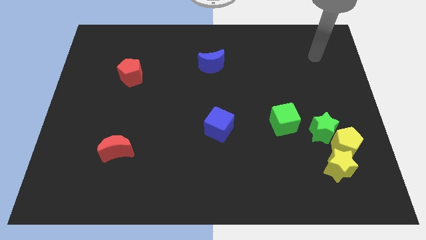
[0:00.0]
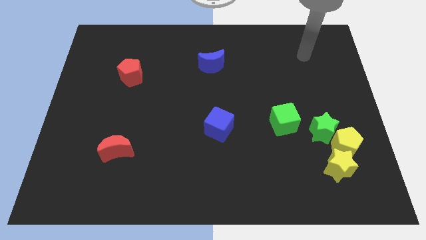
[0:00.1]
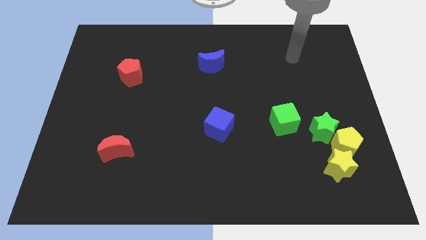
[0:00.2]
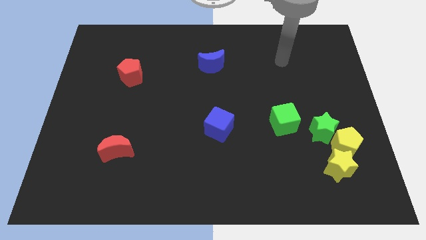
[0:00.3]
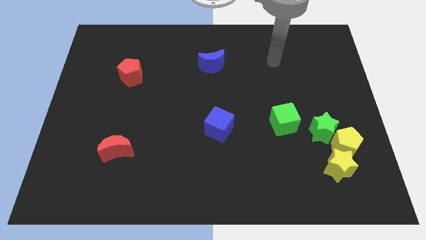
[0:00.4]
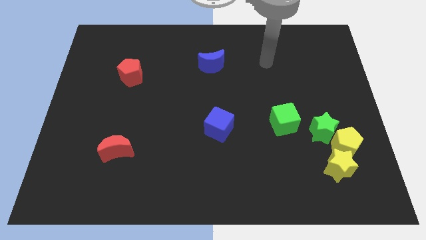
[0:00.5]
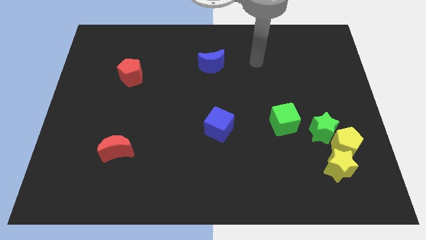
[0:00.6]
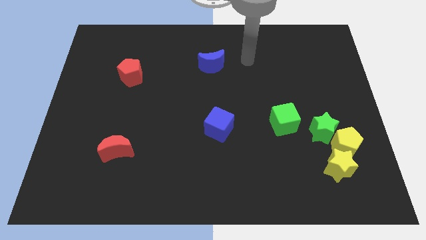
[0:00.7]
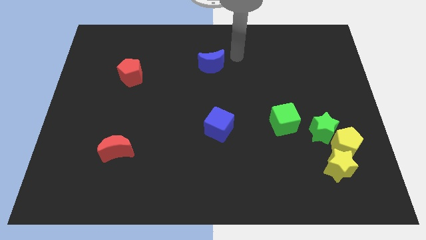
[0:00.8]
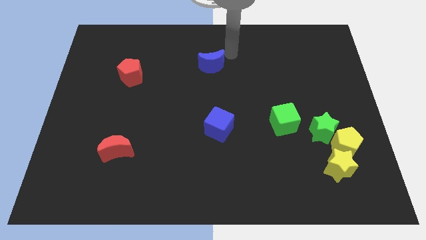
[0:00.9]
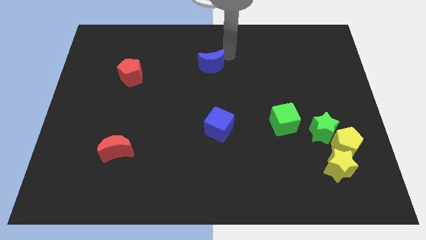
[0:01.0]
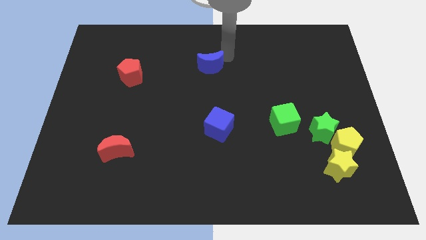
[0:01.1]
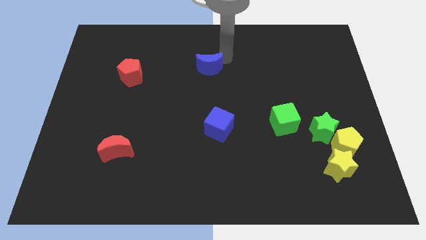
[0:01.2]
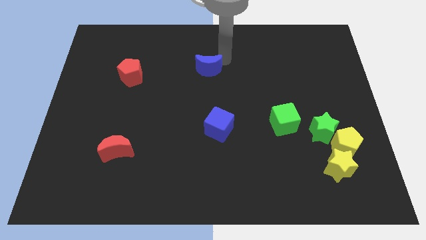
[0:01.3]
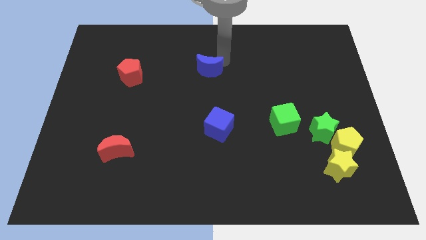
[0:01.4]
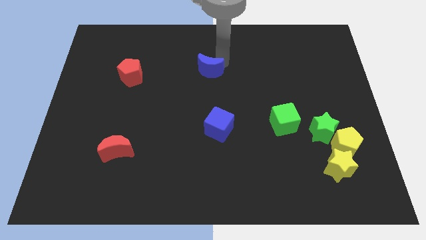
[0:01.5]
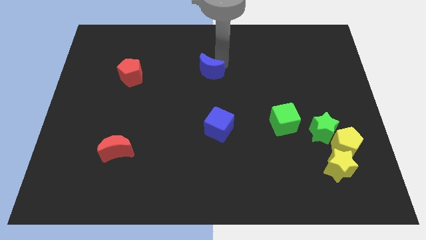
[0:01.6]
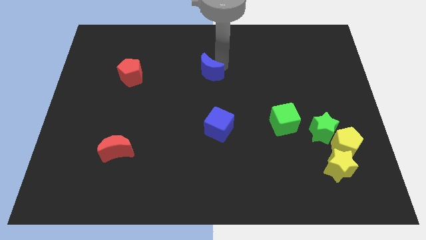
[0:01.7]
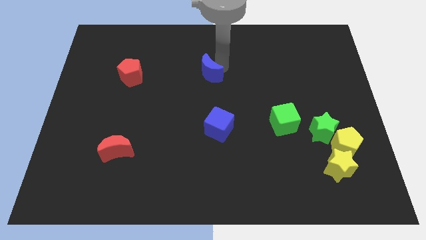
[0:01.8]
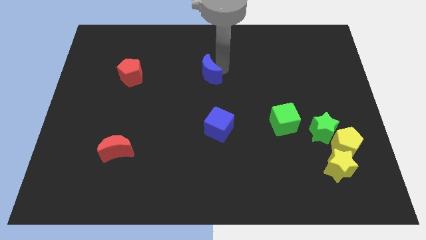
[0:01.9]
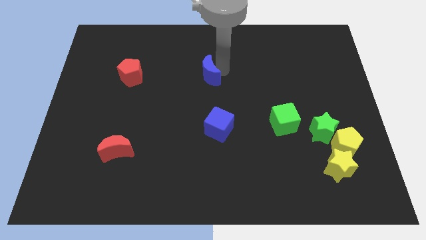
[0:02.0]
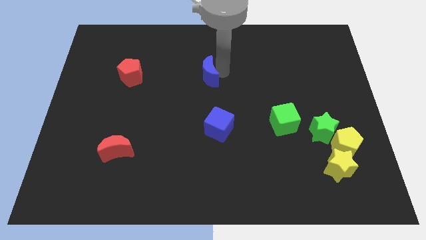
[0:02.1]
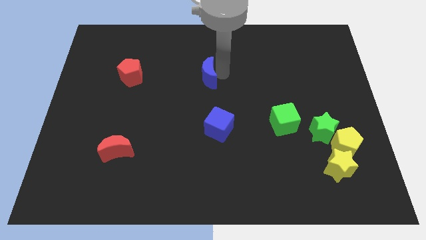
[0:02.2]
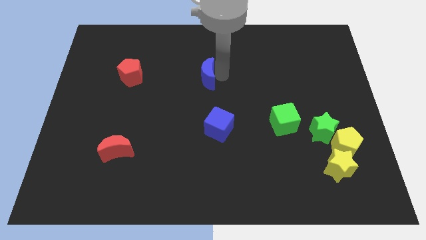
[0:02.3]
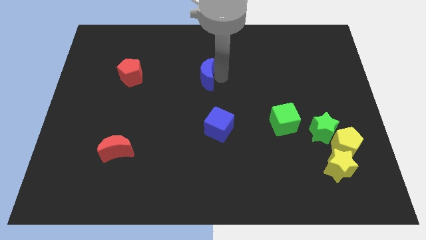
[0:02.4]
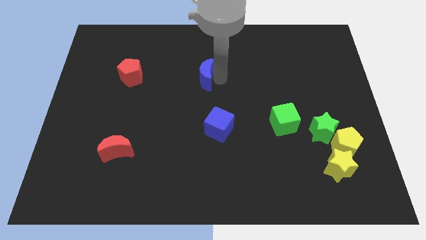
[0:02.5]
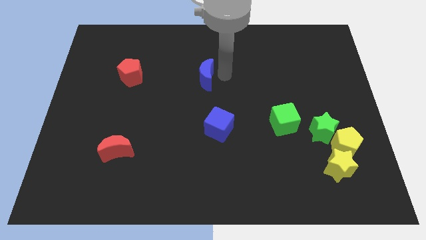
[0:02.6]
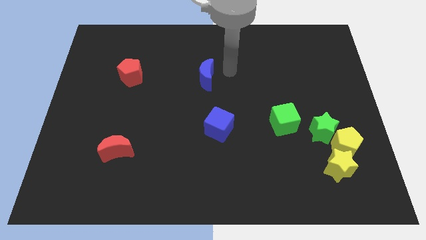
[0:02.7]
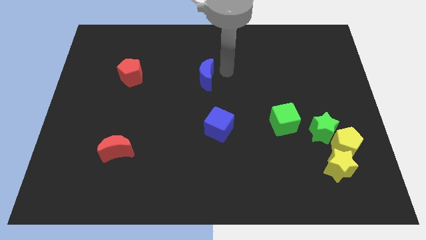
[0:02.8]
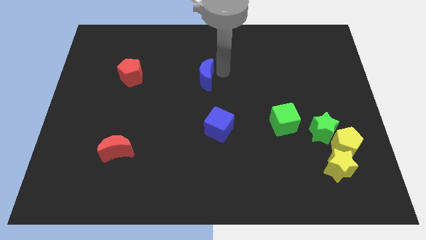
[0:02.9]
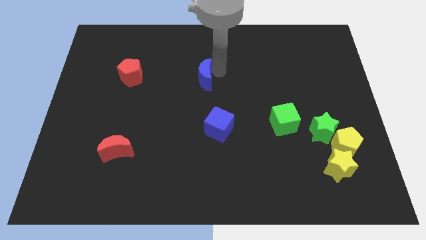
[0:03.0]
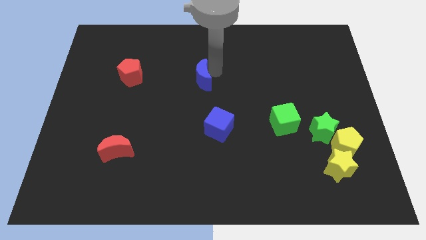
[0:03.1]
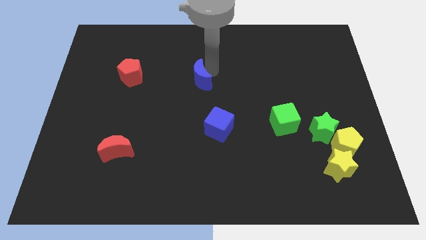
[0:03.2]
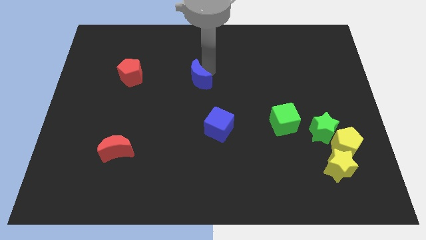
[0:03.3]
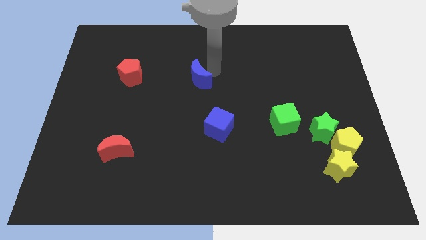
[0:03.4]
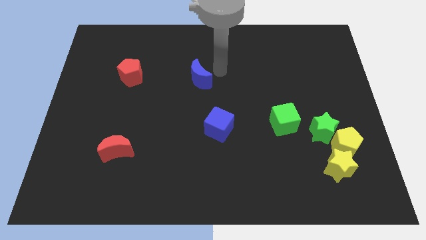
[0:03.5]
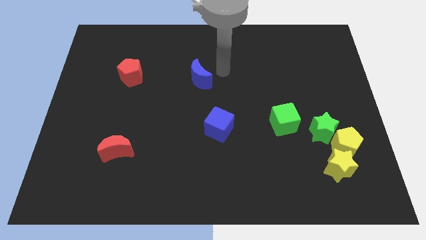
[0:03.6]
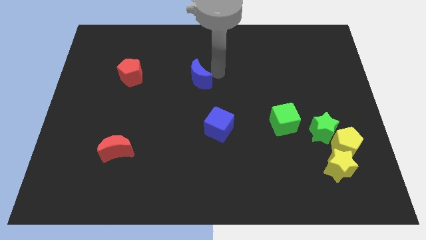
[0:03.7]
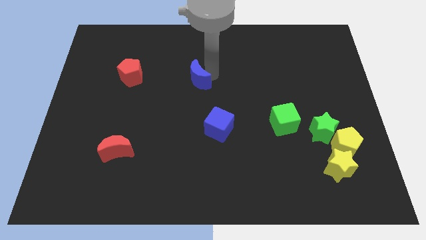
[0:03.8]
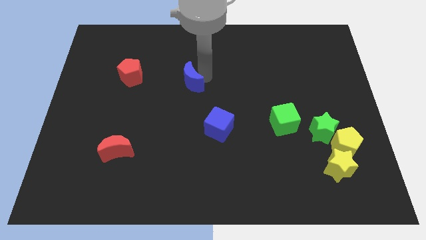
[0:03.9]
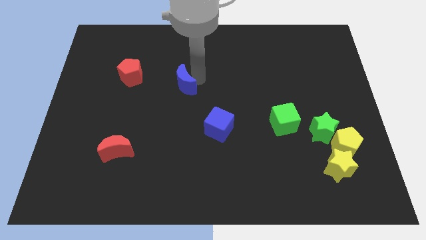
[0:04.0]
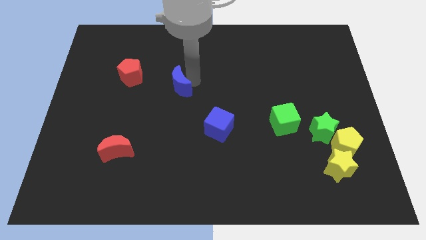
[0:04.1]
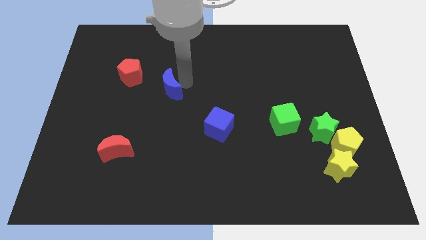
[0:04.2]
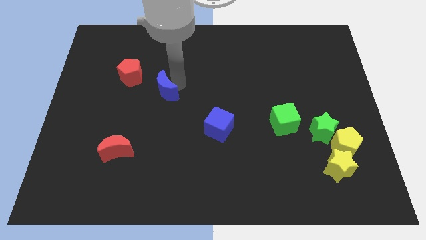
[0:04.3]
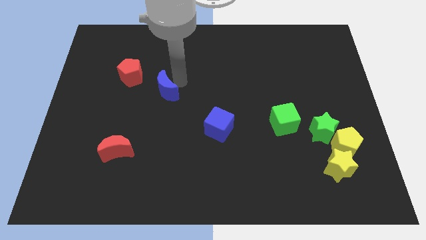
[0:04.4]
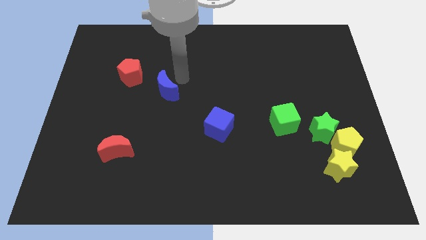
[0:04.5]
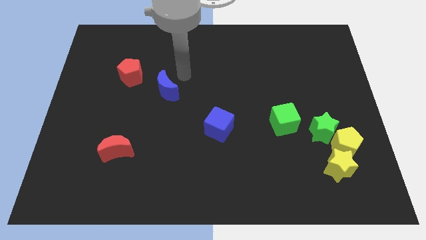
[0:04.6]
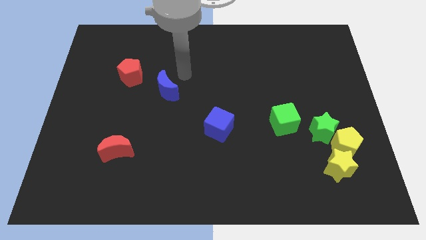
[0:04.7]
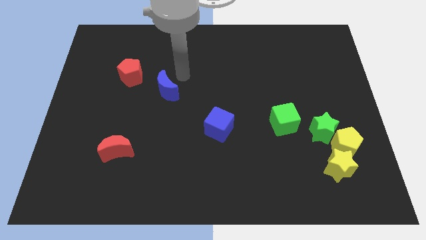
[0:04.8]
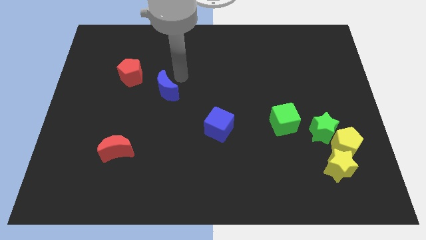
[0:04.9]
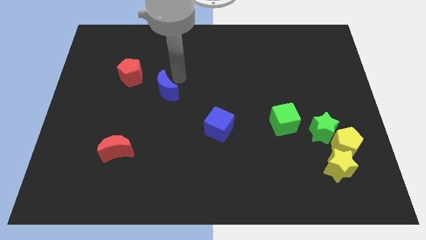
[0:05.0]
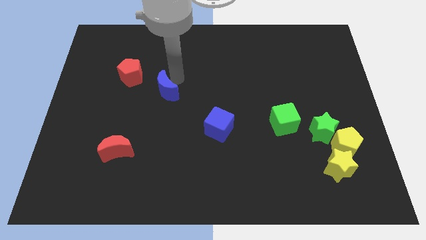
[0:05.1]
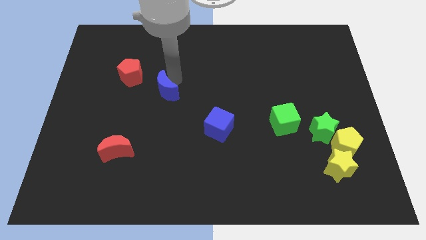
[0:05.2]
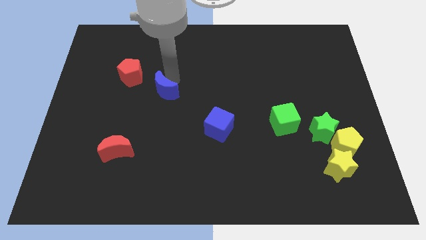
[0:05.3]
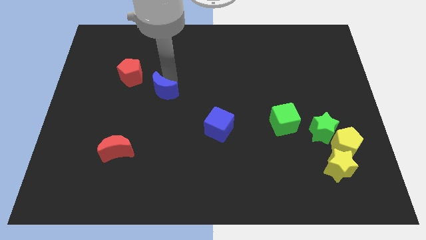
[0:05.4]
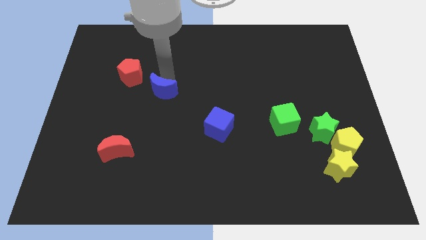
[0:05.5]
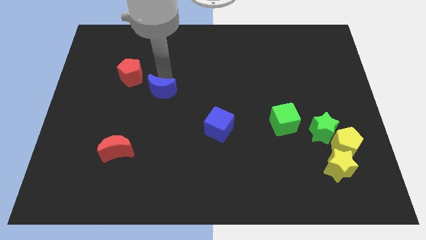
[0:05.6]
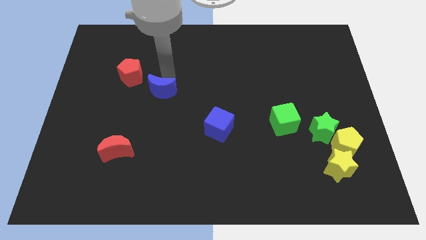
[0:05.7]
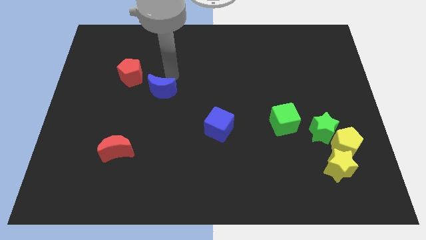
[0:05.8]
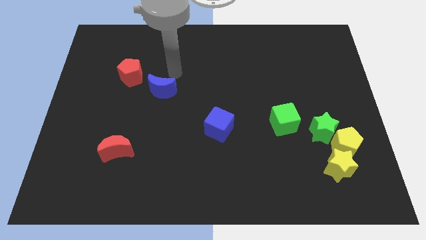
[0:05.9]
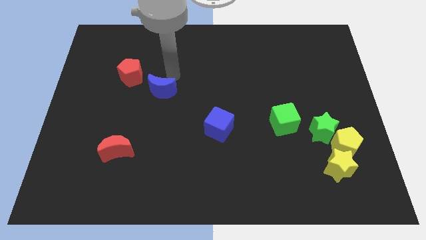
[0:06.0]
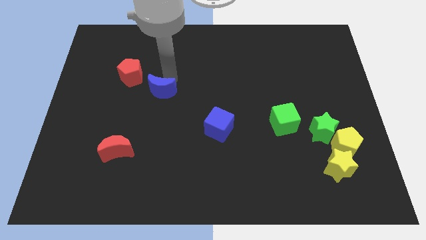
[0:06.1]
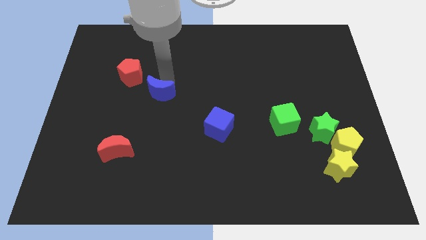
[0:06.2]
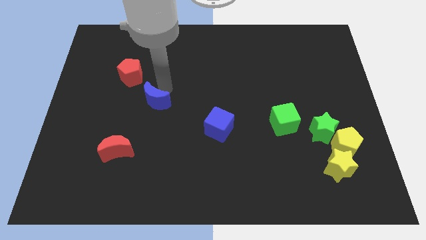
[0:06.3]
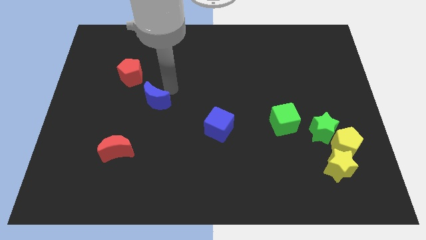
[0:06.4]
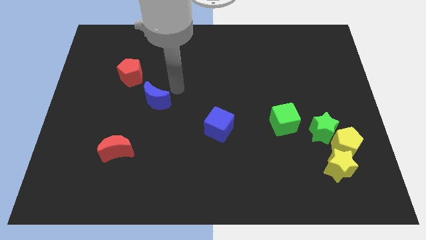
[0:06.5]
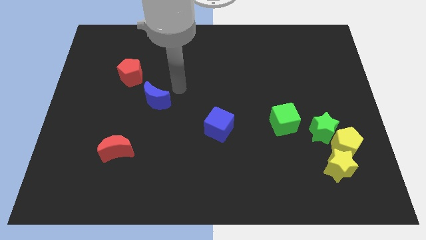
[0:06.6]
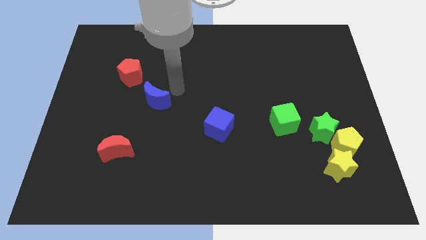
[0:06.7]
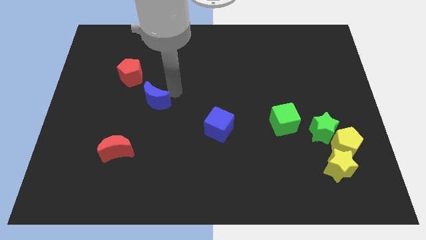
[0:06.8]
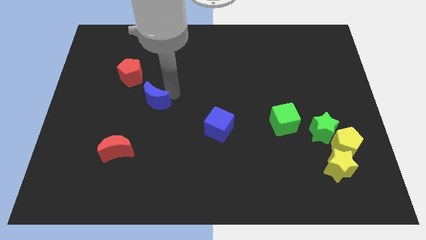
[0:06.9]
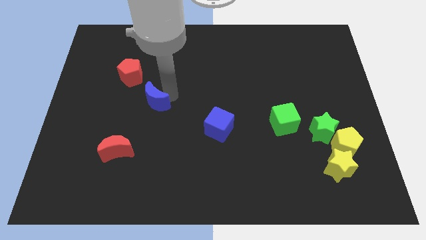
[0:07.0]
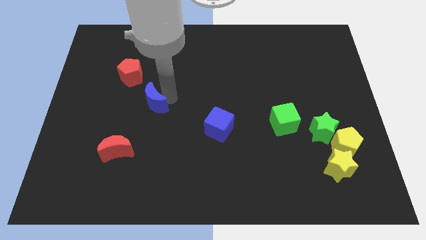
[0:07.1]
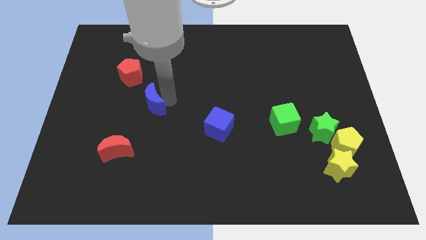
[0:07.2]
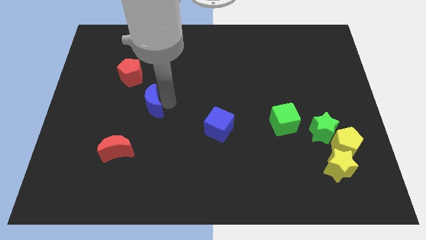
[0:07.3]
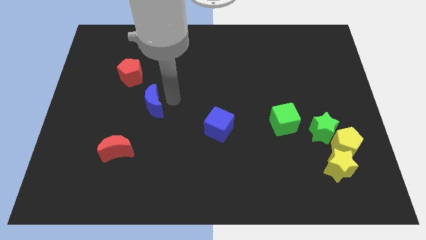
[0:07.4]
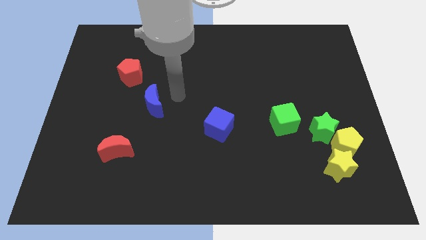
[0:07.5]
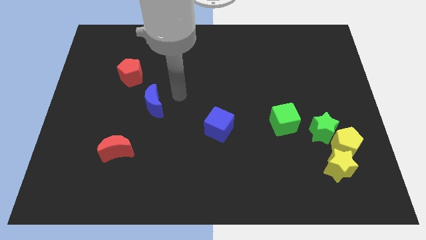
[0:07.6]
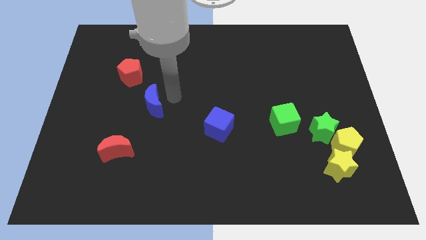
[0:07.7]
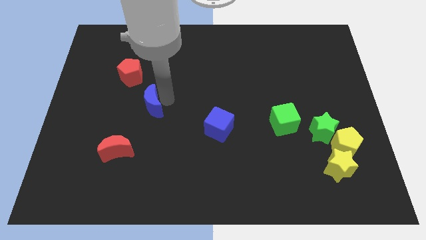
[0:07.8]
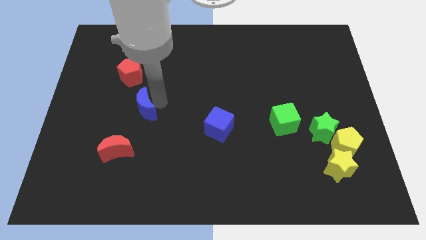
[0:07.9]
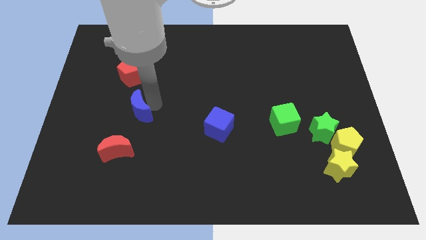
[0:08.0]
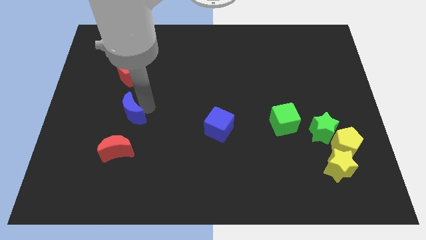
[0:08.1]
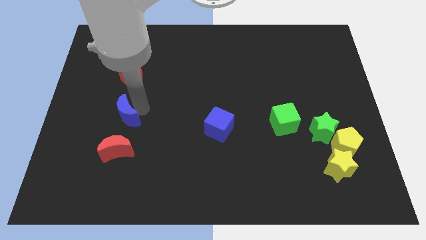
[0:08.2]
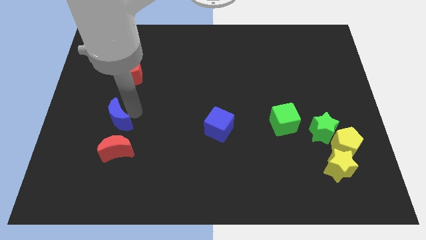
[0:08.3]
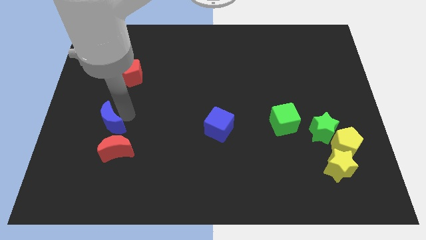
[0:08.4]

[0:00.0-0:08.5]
move the blue moon to the top left side of the red moon
